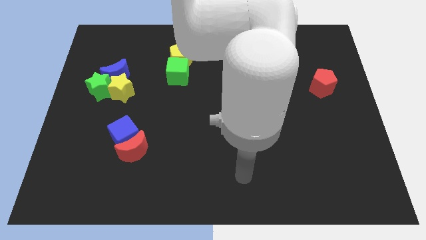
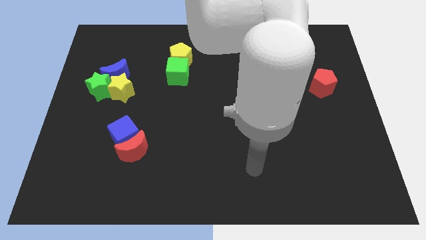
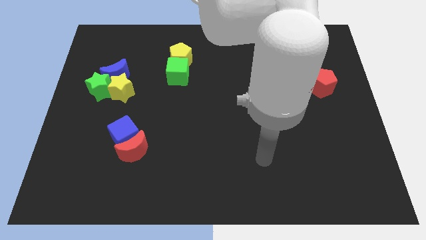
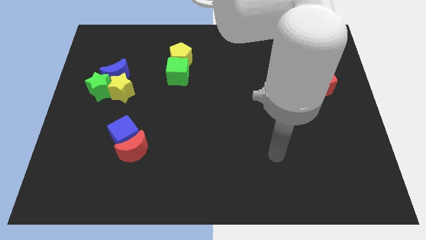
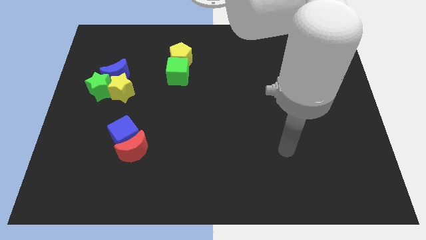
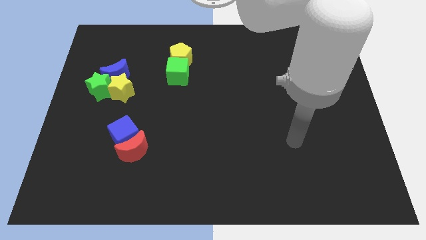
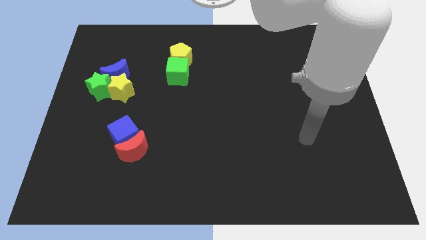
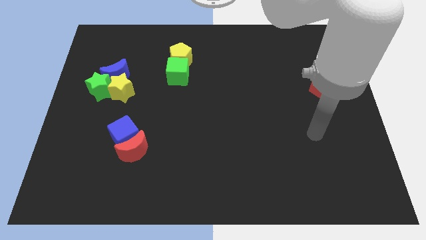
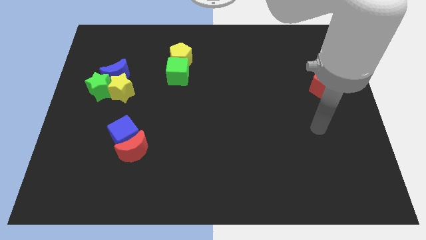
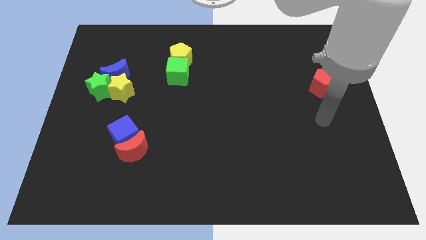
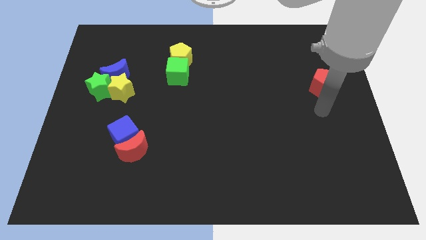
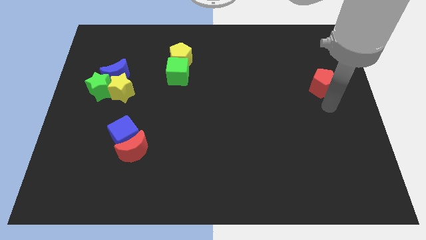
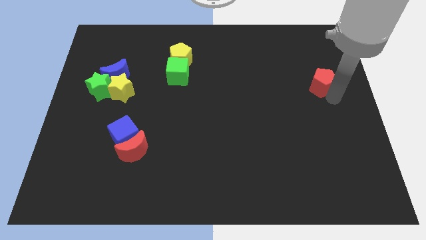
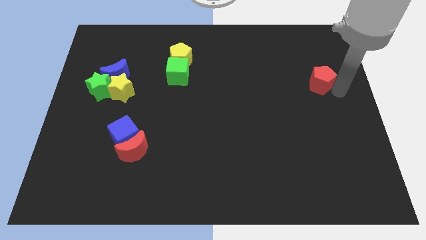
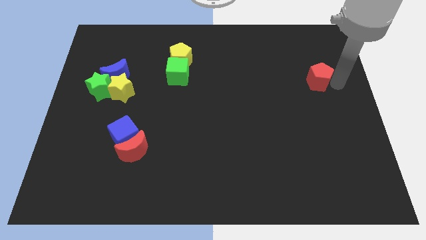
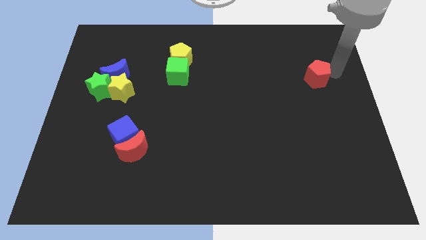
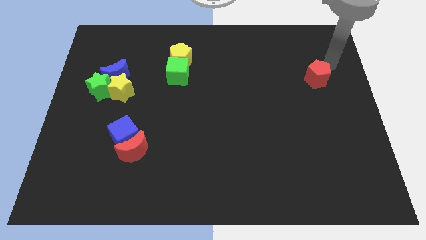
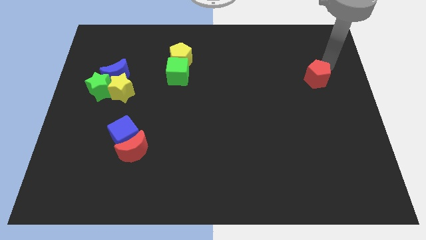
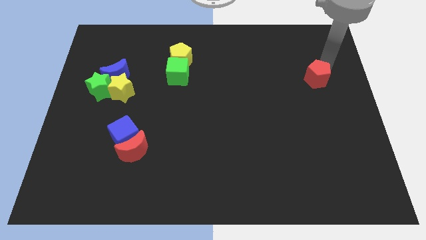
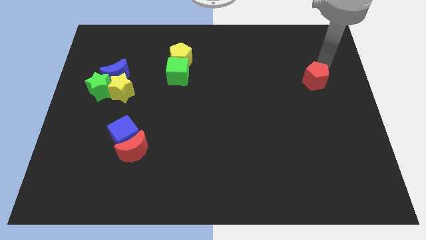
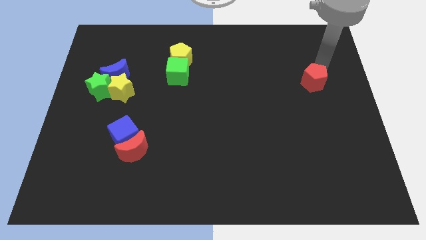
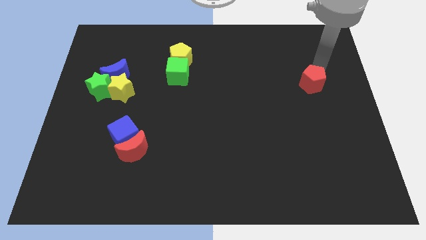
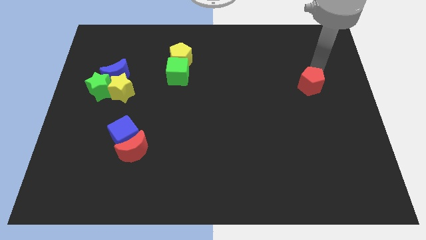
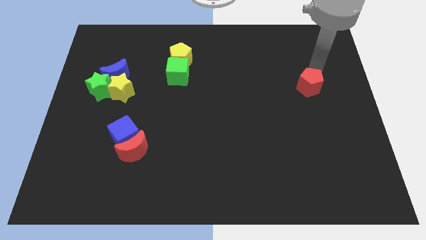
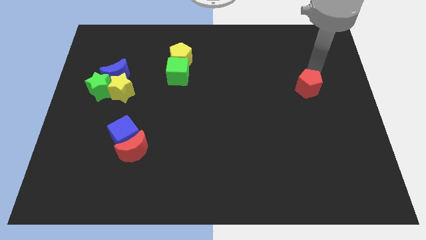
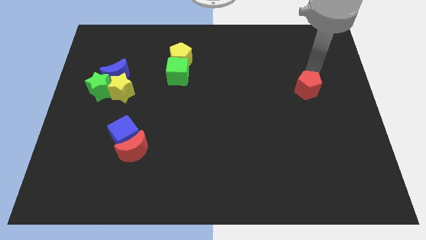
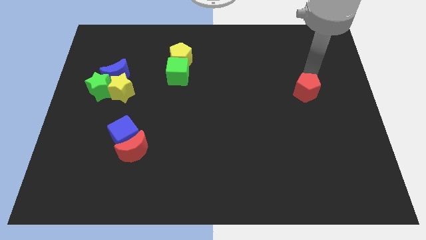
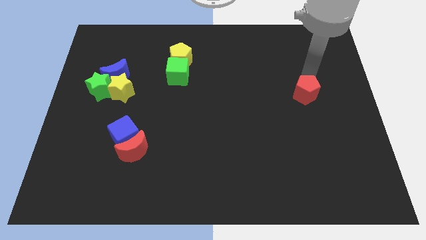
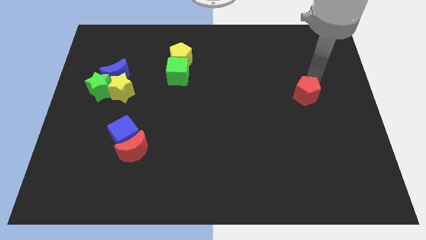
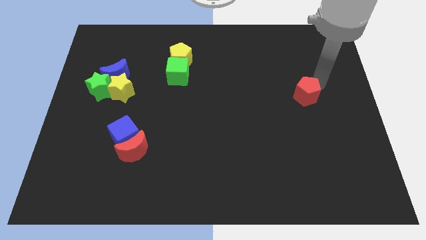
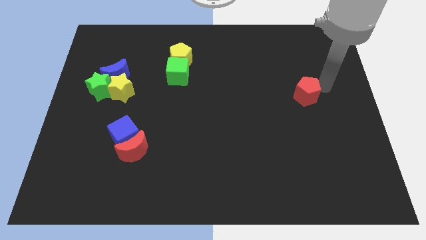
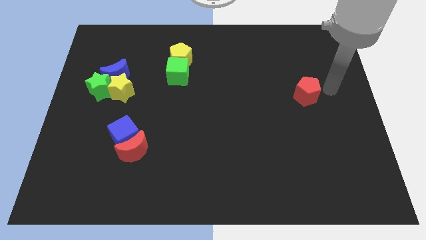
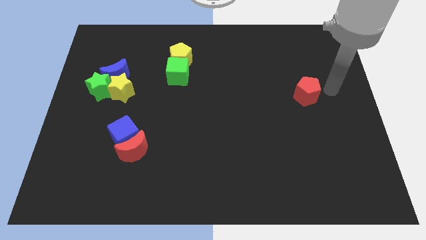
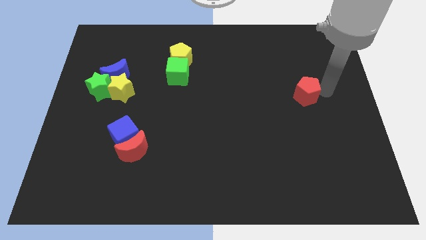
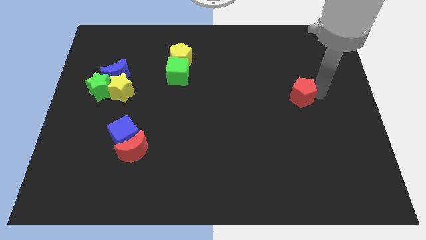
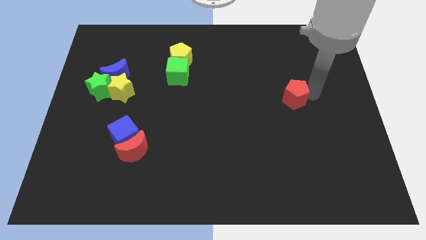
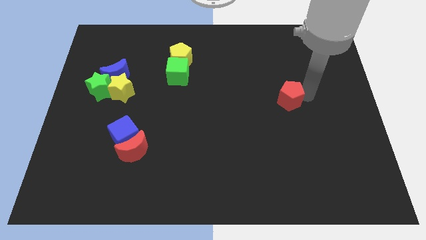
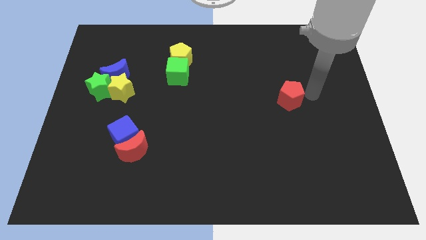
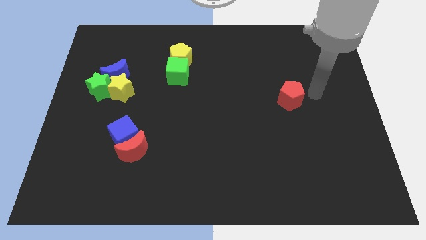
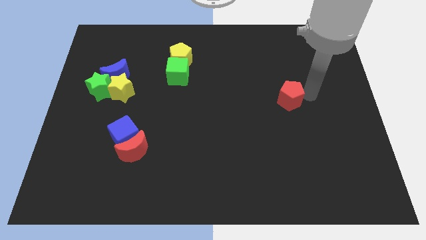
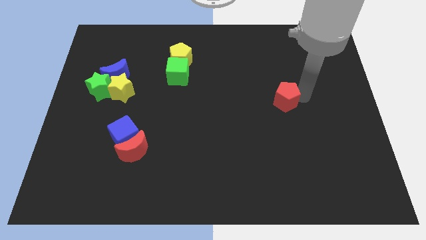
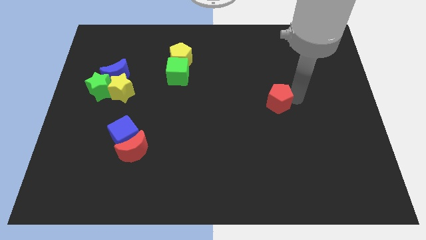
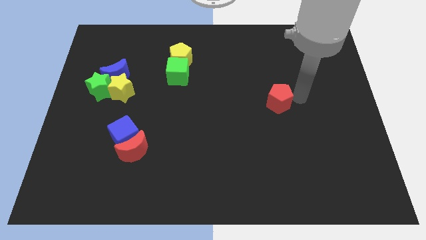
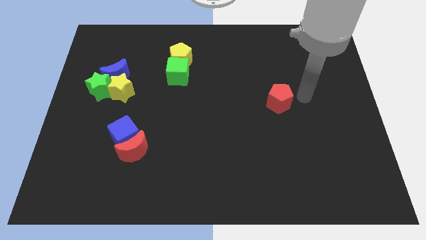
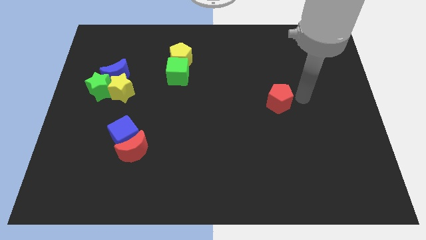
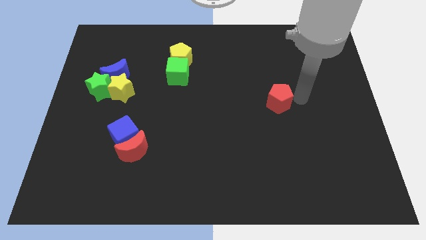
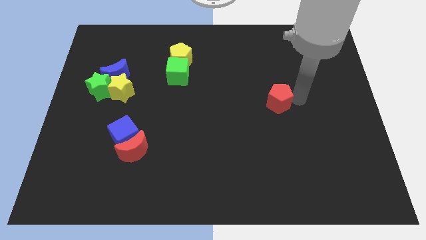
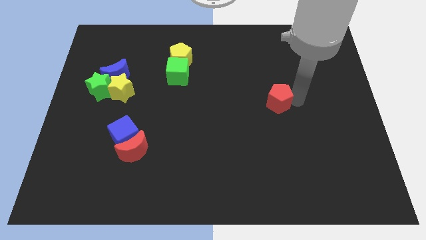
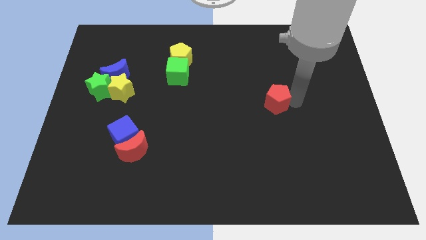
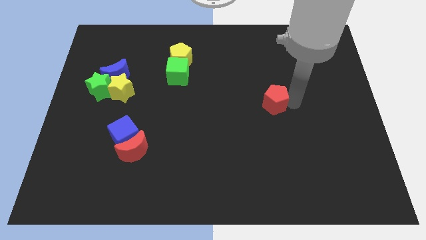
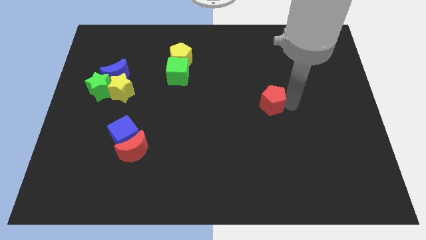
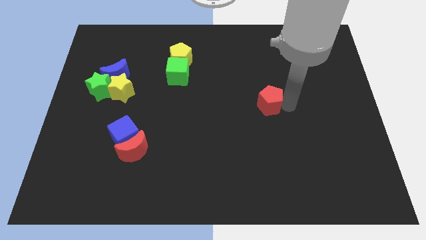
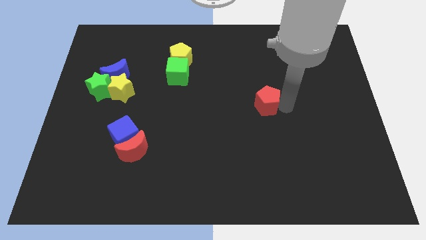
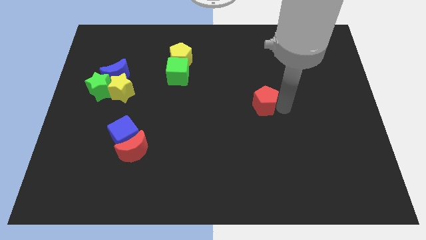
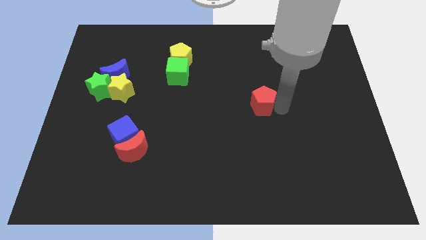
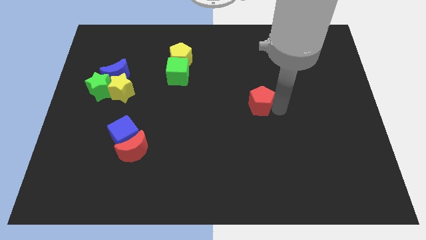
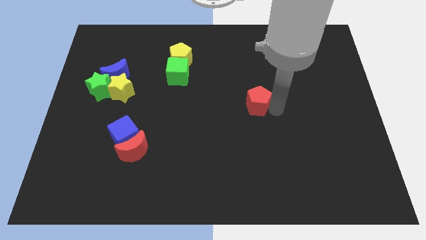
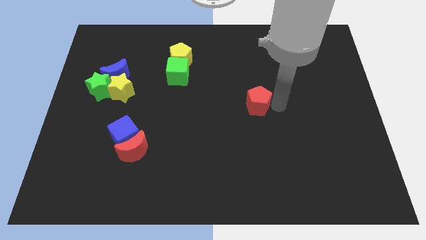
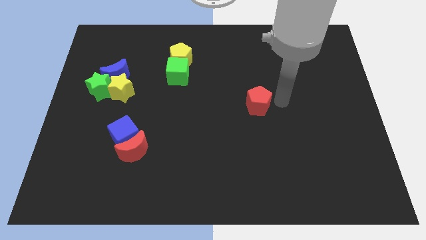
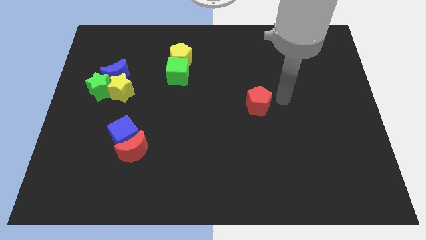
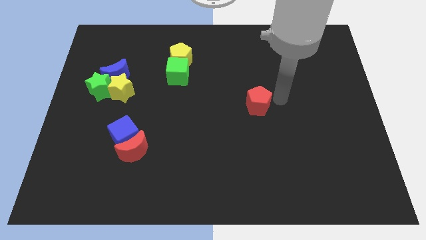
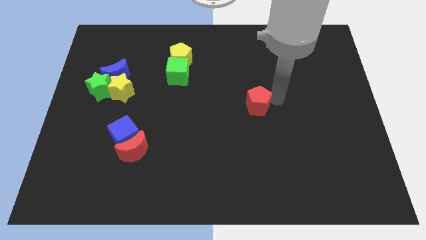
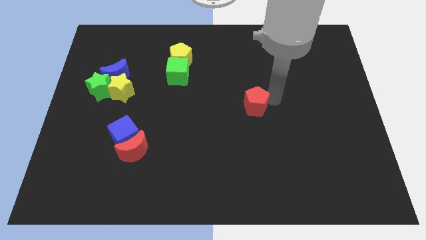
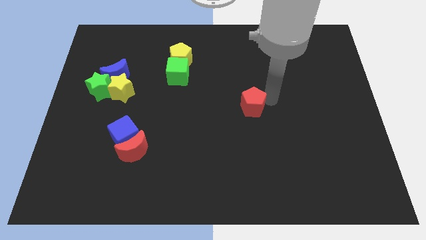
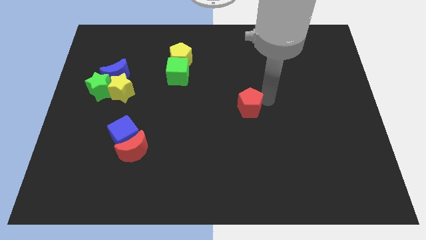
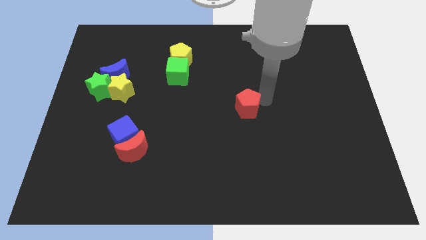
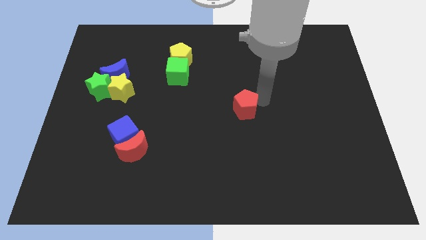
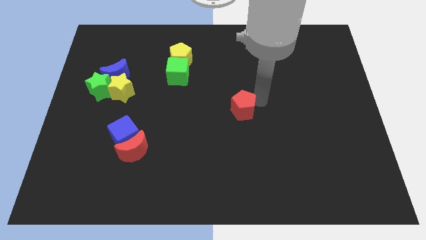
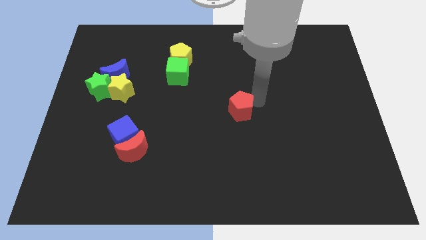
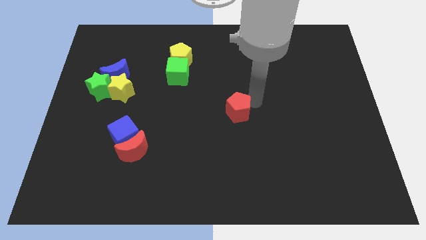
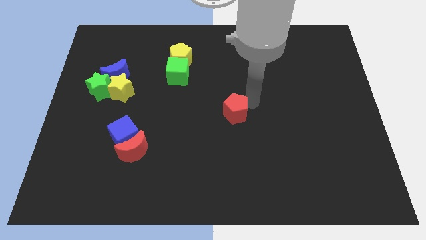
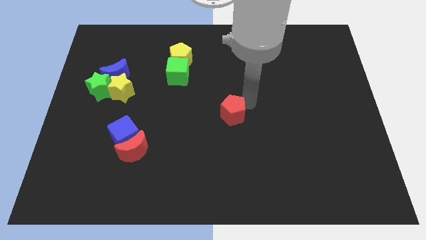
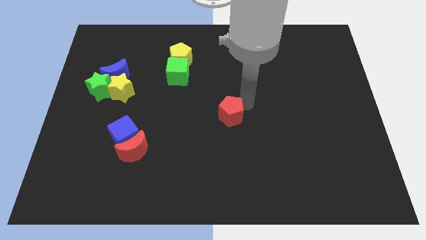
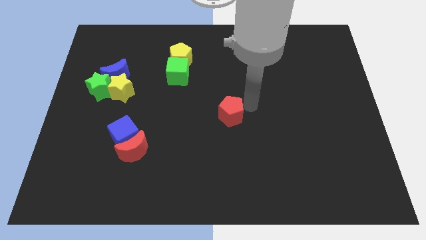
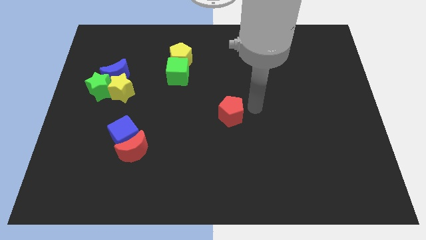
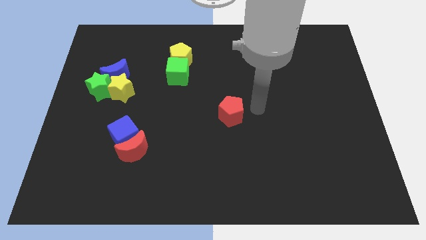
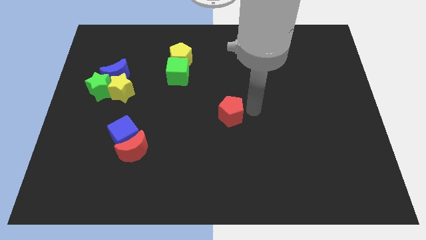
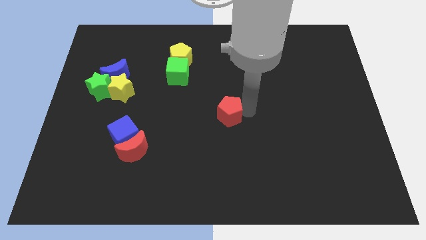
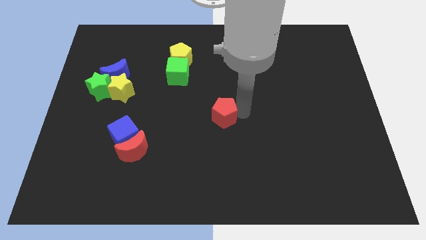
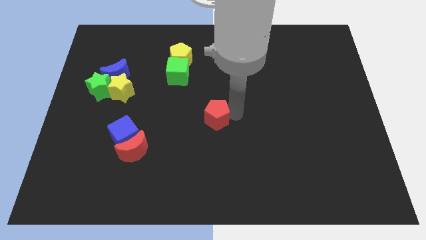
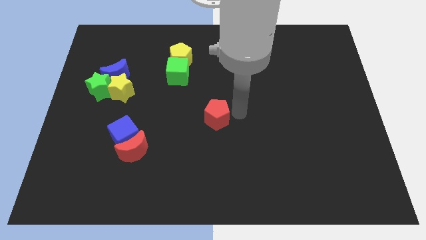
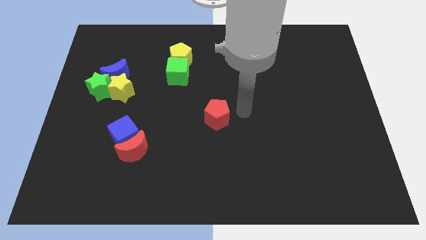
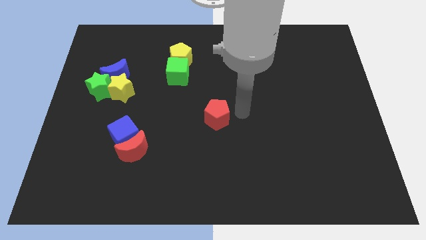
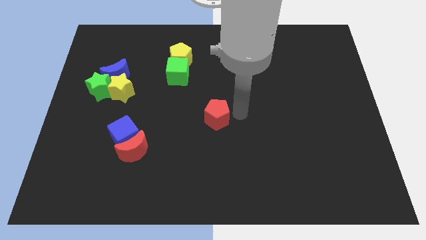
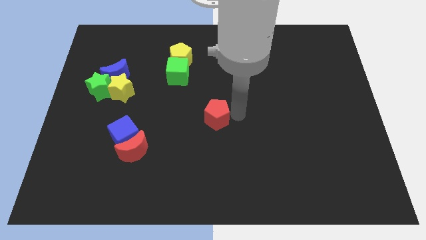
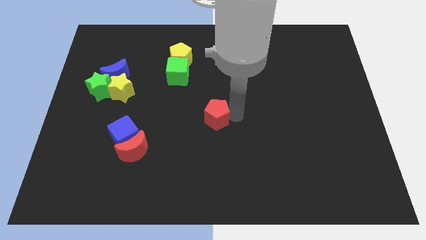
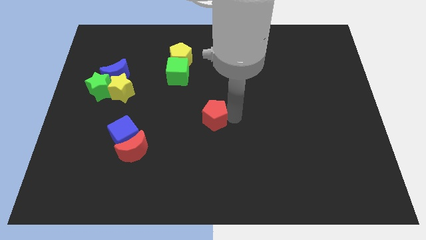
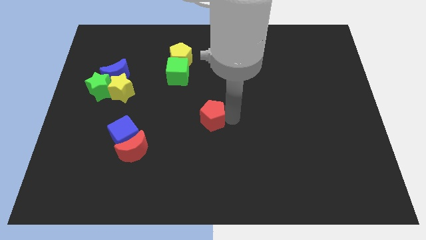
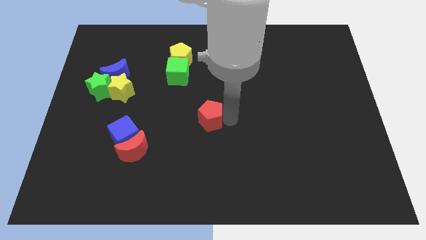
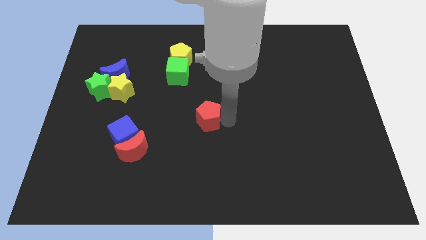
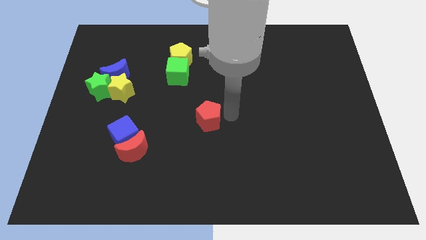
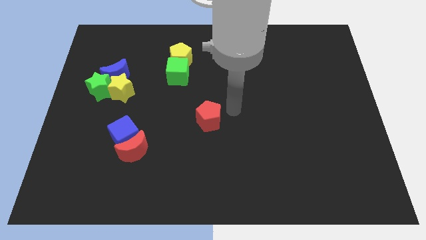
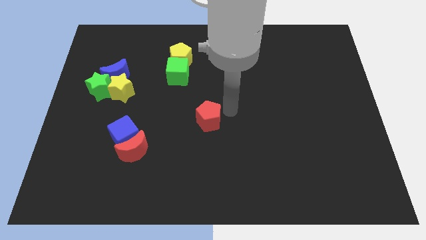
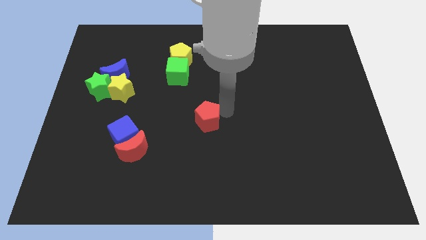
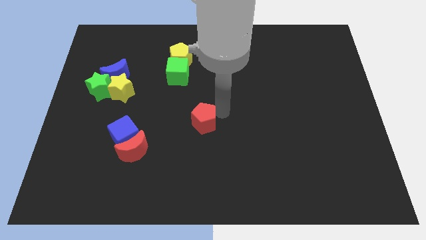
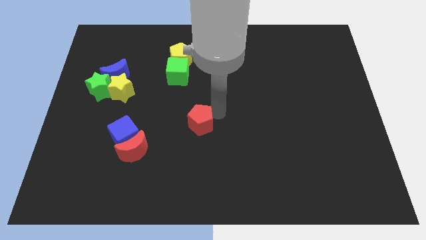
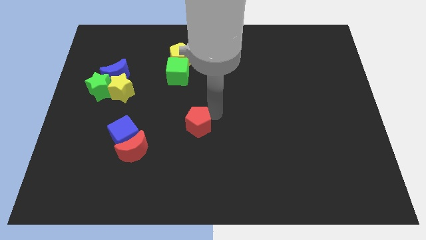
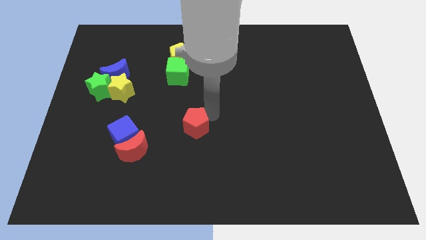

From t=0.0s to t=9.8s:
slide the red pentagon to the right of the blue cube
